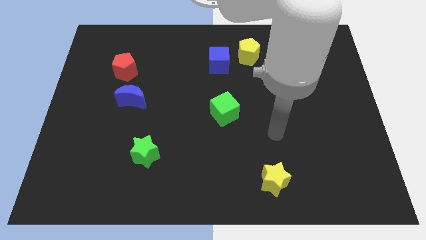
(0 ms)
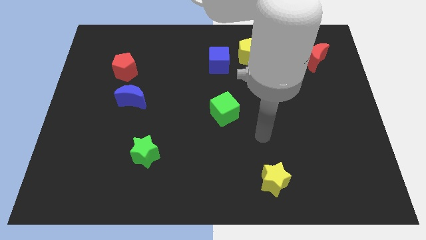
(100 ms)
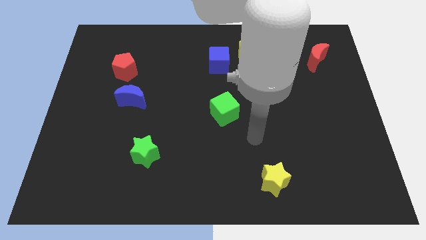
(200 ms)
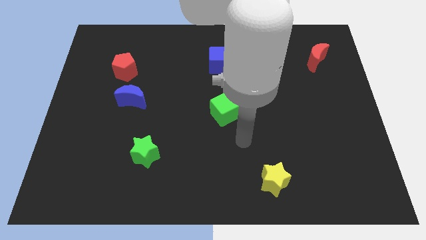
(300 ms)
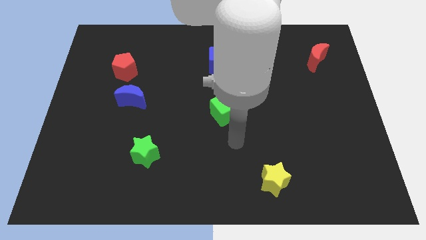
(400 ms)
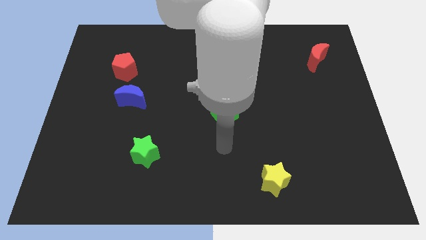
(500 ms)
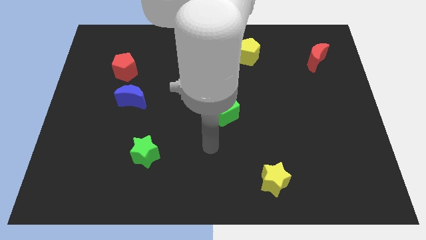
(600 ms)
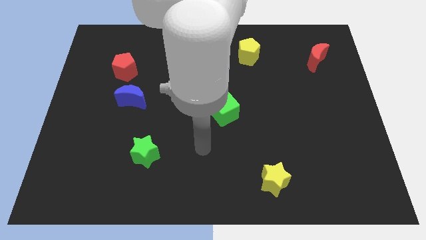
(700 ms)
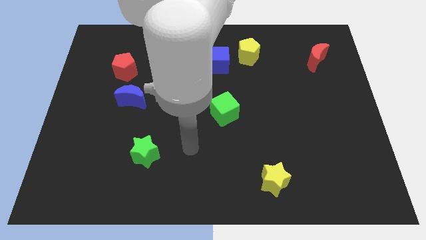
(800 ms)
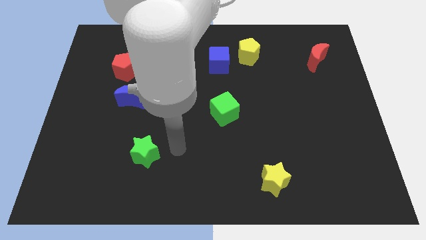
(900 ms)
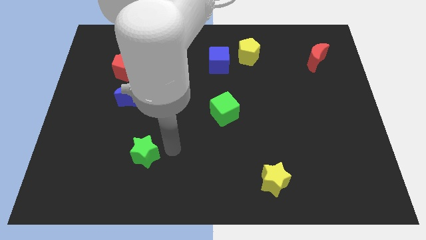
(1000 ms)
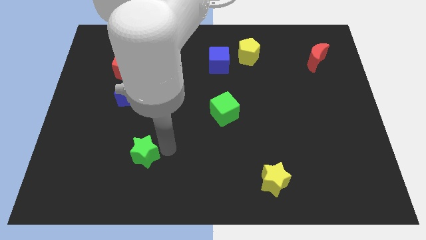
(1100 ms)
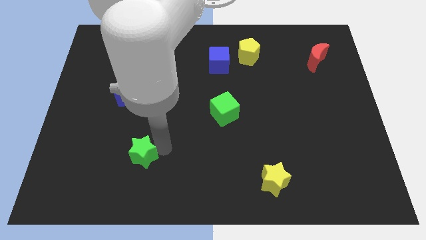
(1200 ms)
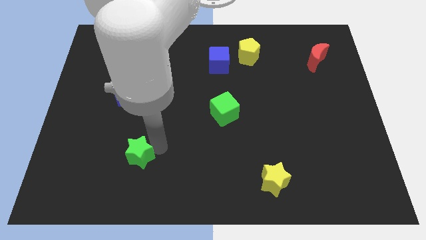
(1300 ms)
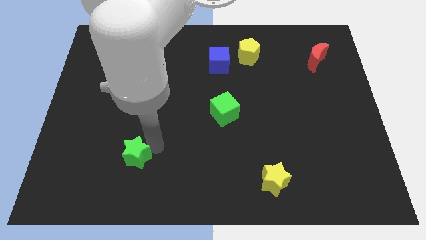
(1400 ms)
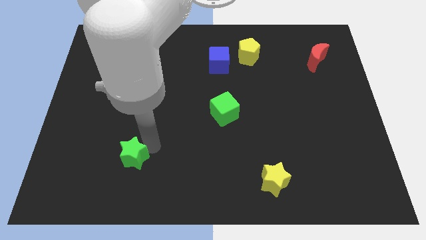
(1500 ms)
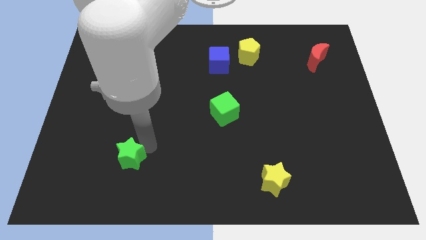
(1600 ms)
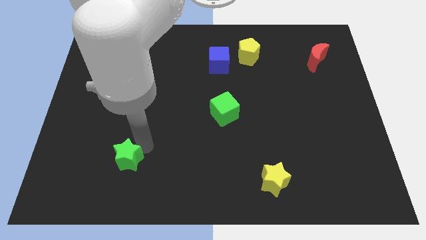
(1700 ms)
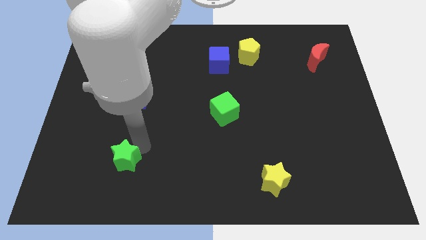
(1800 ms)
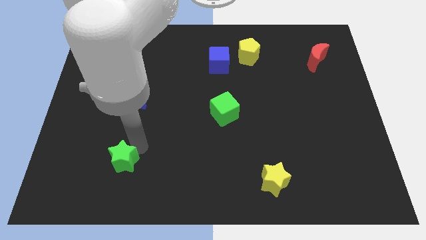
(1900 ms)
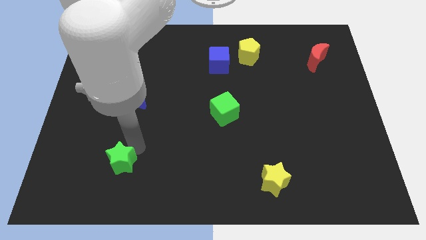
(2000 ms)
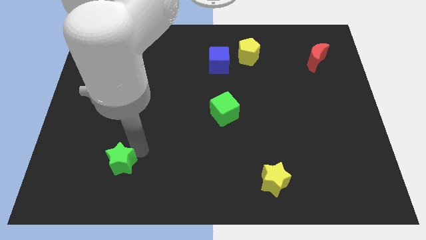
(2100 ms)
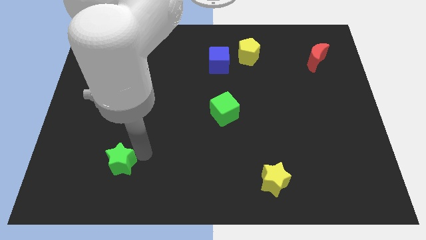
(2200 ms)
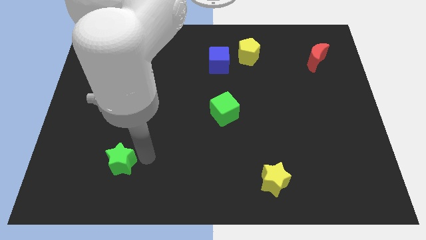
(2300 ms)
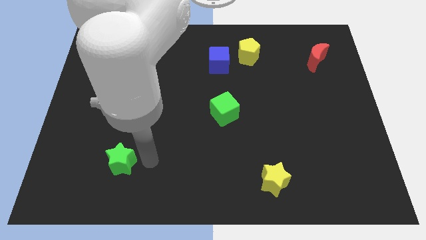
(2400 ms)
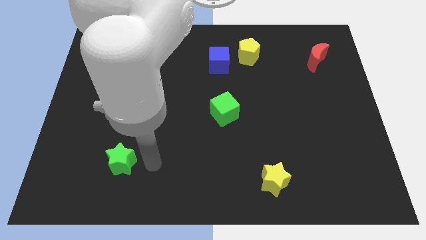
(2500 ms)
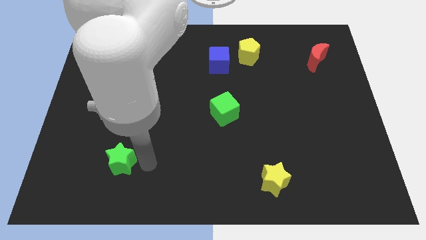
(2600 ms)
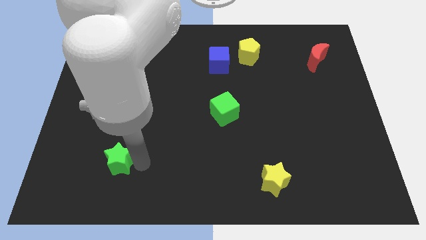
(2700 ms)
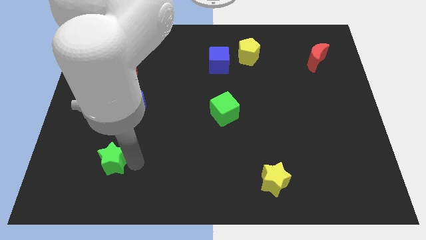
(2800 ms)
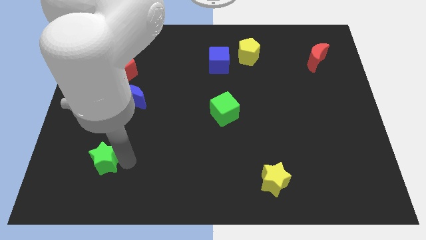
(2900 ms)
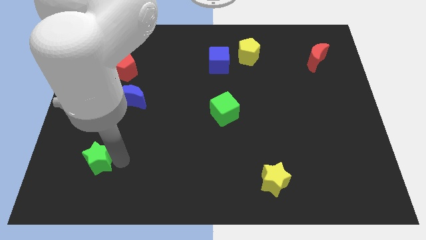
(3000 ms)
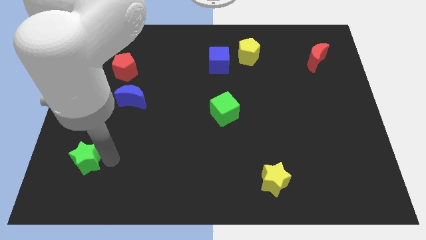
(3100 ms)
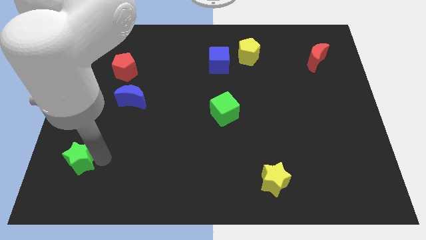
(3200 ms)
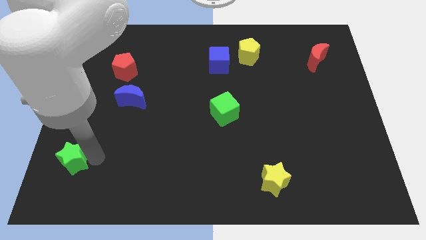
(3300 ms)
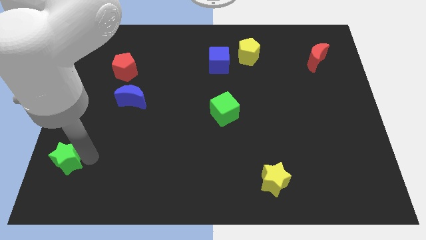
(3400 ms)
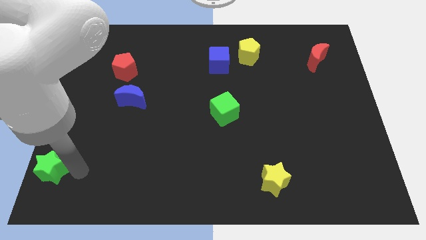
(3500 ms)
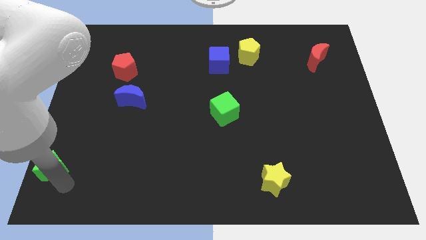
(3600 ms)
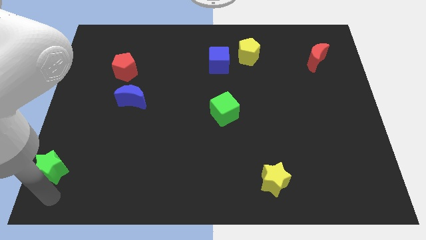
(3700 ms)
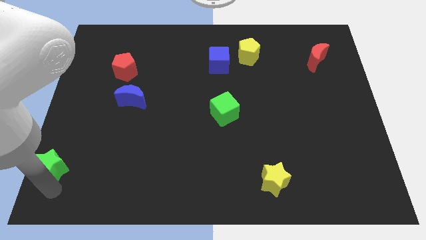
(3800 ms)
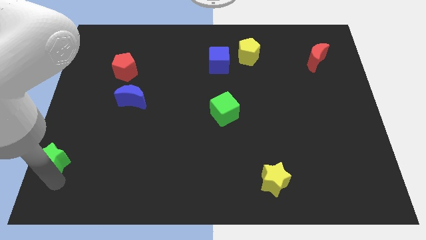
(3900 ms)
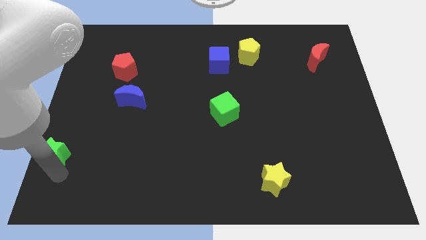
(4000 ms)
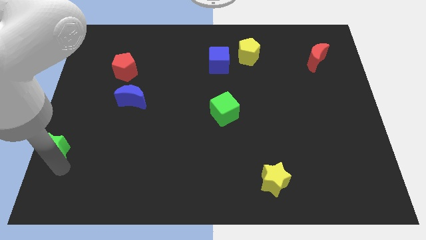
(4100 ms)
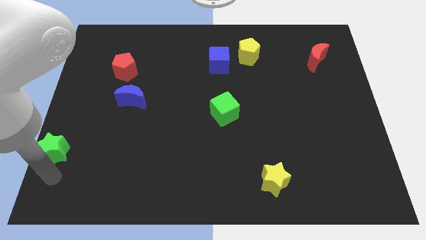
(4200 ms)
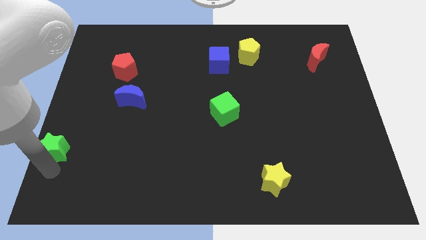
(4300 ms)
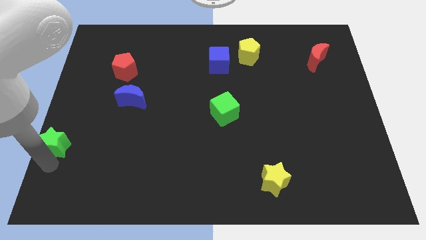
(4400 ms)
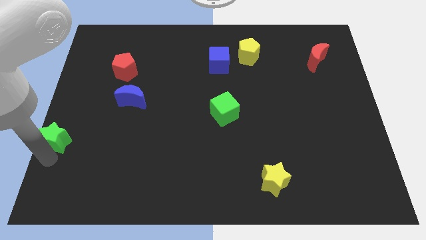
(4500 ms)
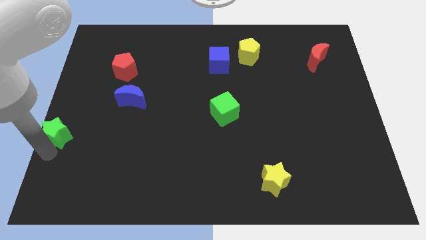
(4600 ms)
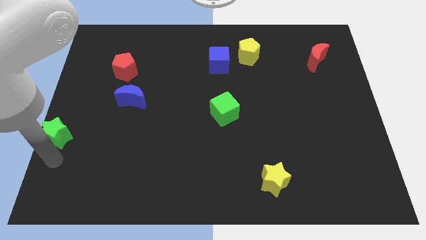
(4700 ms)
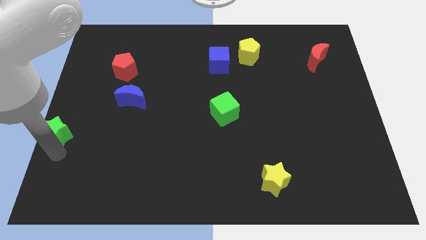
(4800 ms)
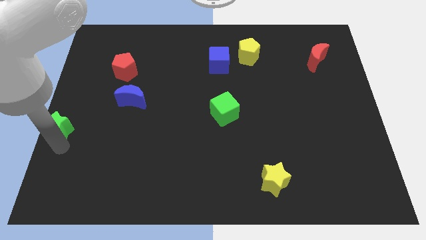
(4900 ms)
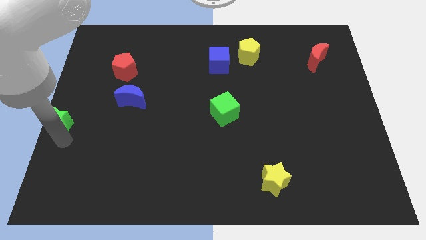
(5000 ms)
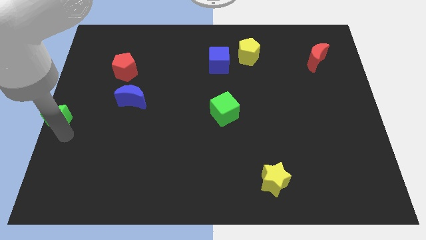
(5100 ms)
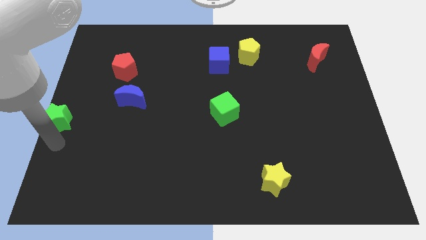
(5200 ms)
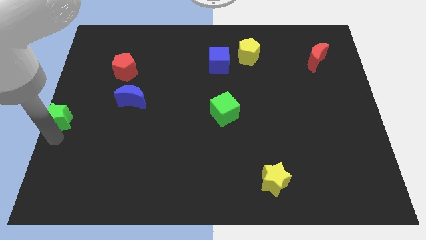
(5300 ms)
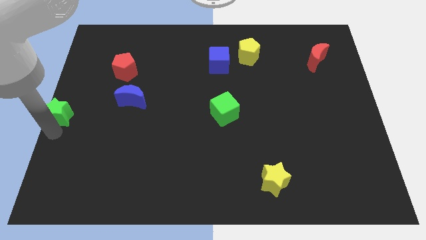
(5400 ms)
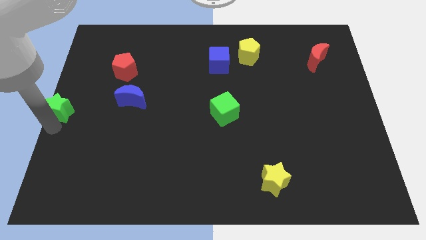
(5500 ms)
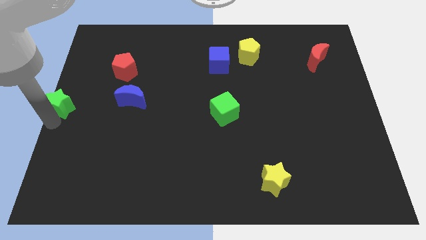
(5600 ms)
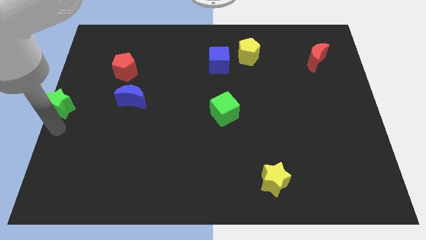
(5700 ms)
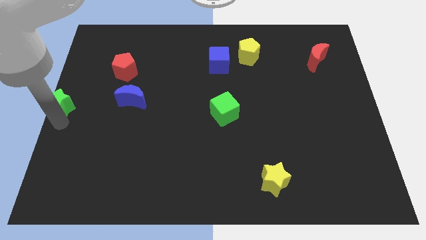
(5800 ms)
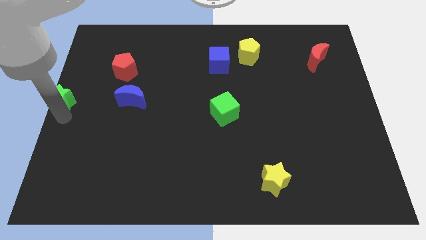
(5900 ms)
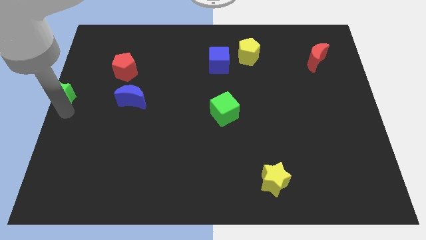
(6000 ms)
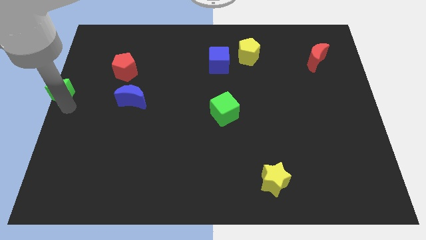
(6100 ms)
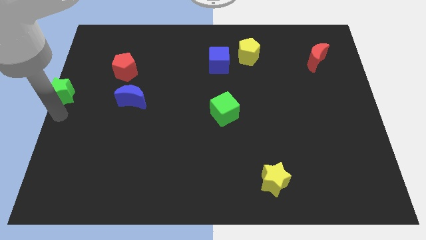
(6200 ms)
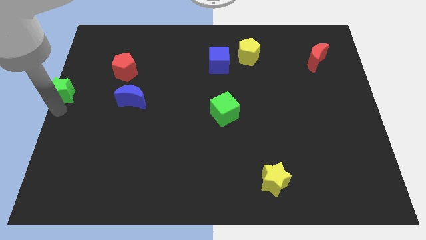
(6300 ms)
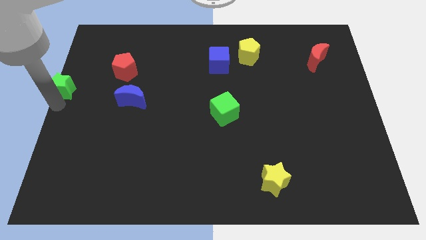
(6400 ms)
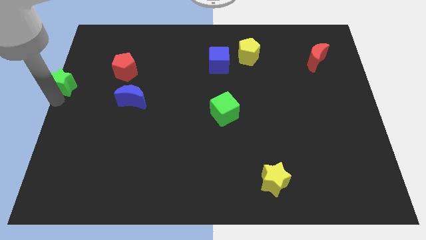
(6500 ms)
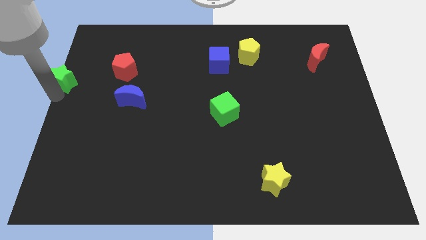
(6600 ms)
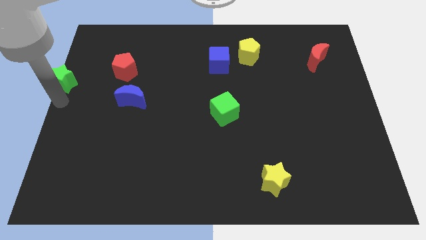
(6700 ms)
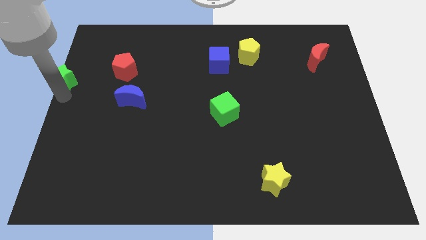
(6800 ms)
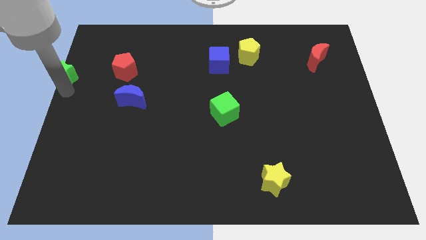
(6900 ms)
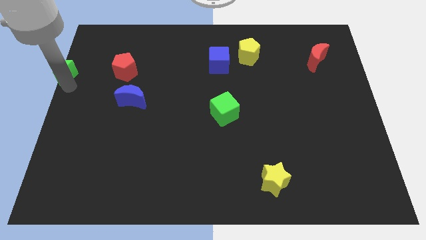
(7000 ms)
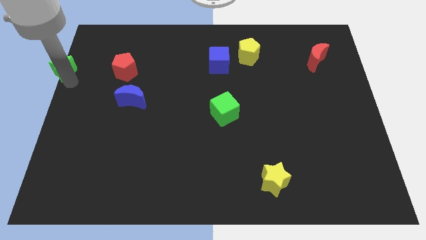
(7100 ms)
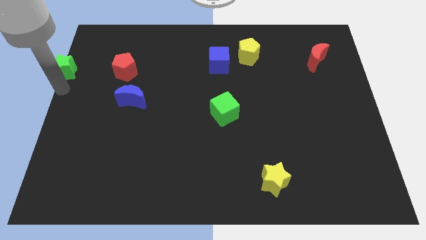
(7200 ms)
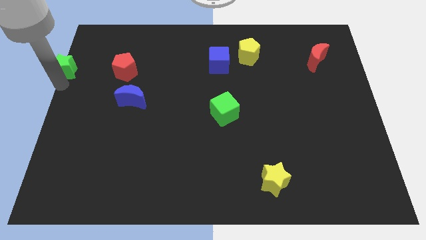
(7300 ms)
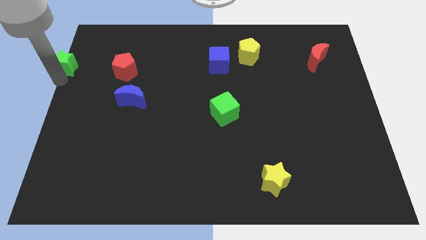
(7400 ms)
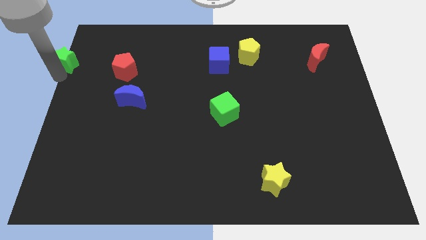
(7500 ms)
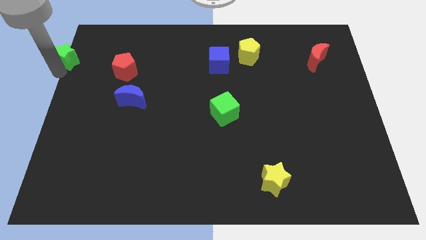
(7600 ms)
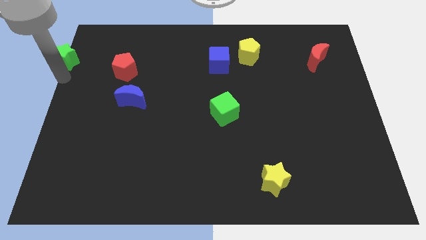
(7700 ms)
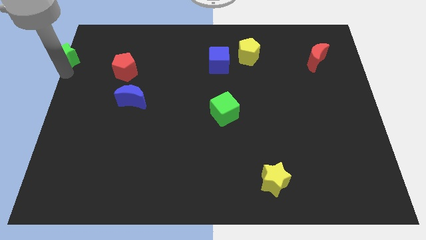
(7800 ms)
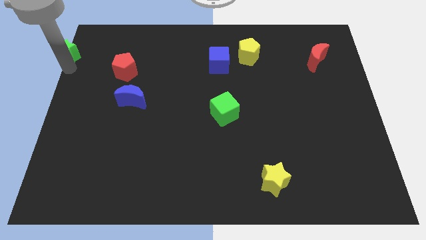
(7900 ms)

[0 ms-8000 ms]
slide the green star to the upper left corner
